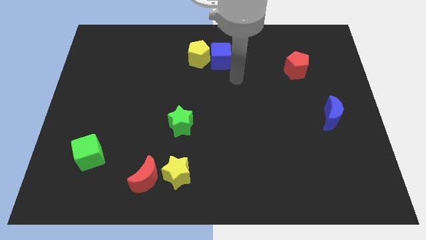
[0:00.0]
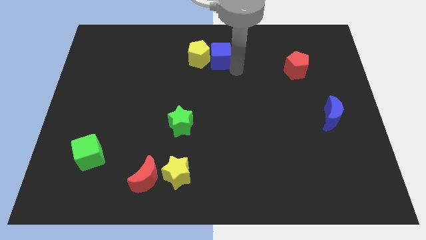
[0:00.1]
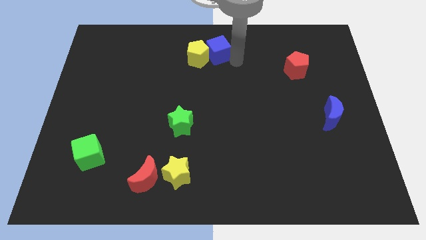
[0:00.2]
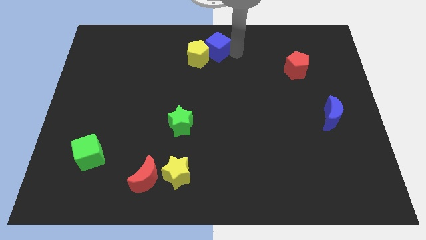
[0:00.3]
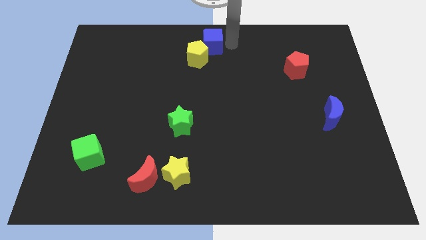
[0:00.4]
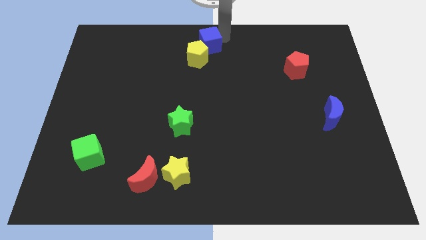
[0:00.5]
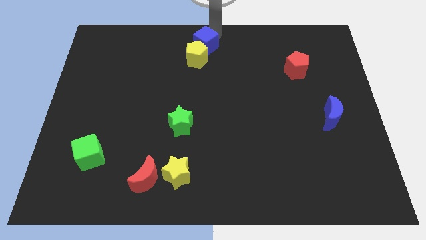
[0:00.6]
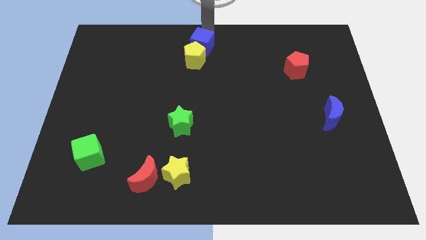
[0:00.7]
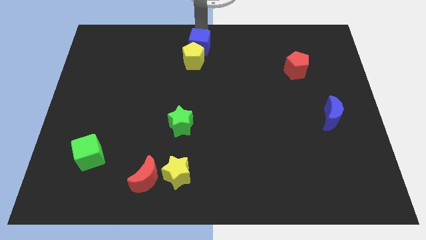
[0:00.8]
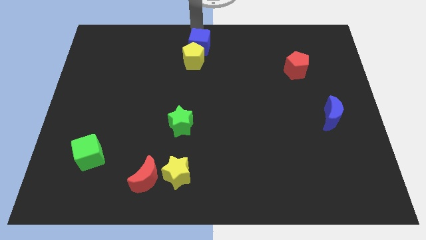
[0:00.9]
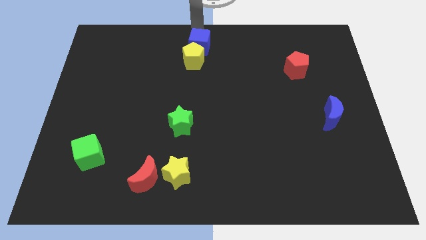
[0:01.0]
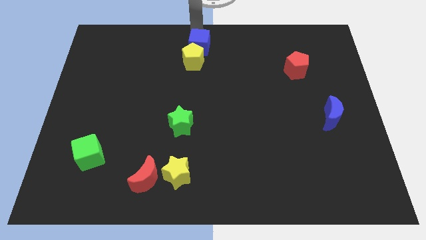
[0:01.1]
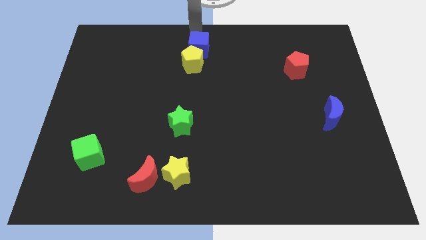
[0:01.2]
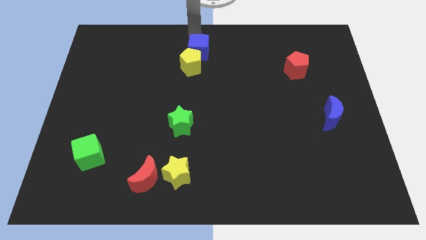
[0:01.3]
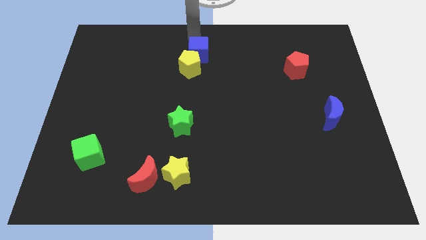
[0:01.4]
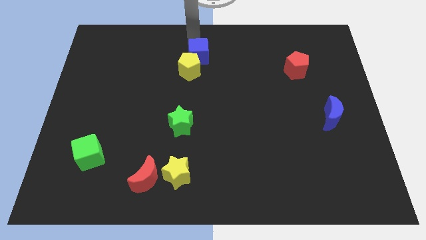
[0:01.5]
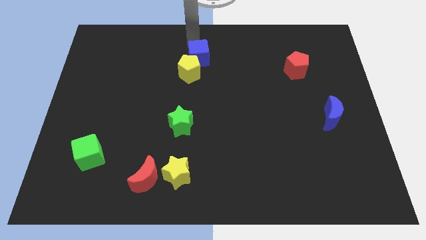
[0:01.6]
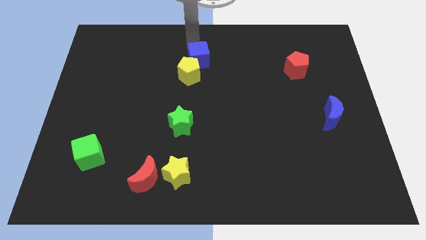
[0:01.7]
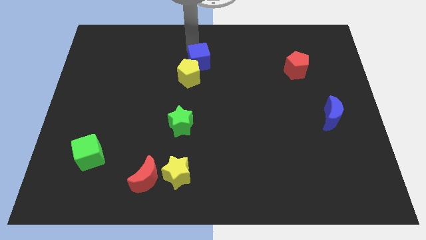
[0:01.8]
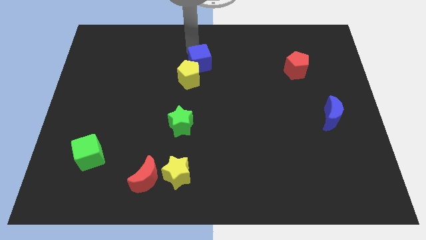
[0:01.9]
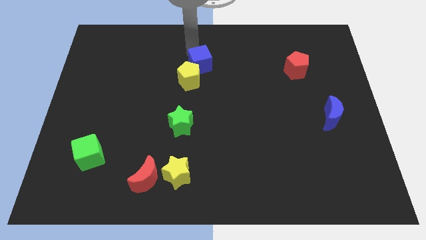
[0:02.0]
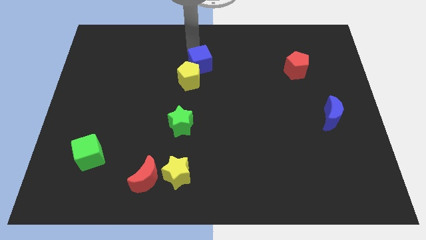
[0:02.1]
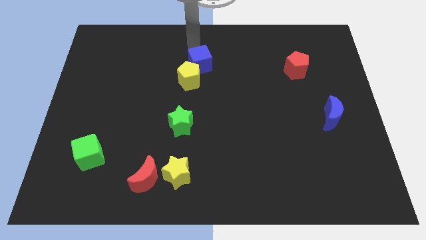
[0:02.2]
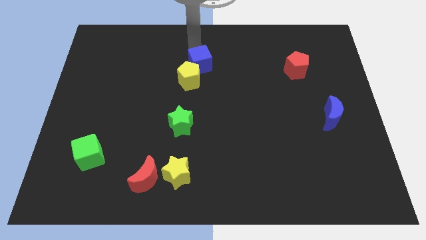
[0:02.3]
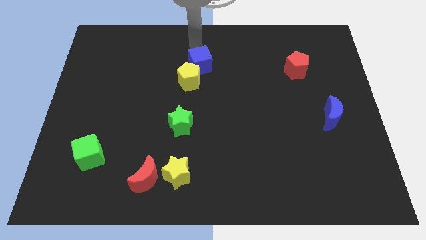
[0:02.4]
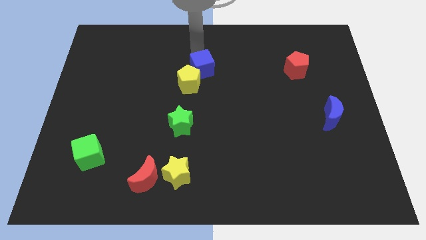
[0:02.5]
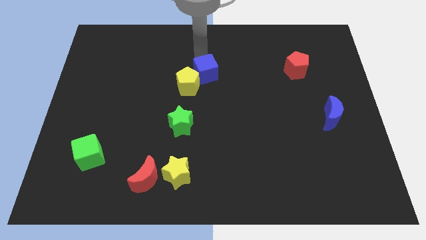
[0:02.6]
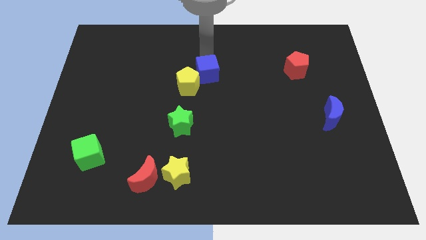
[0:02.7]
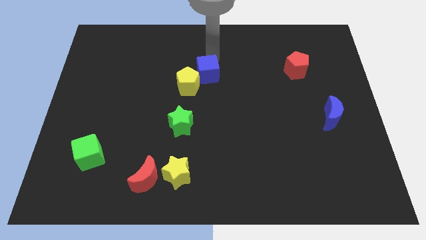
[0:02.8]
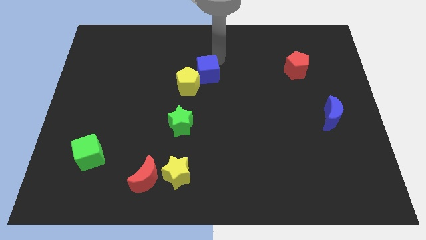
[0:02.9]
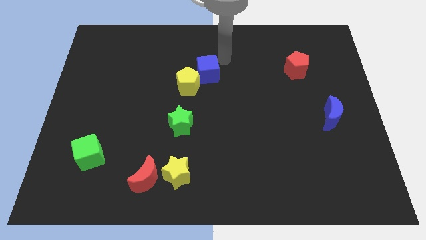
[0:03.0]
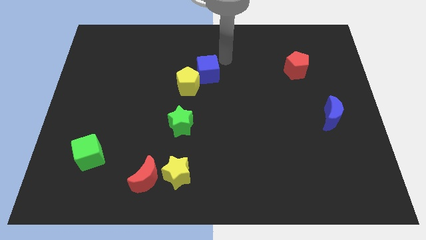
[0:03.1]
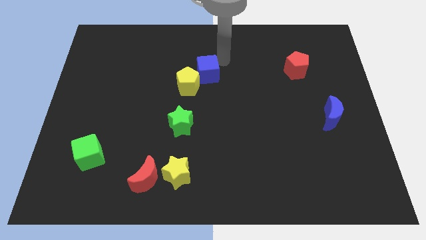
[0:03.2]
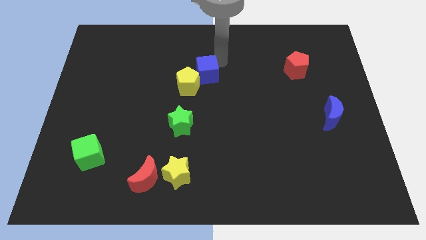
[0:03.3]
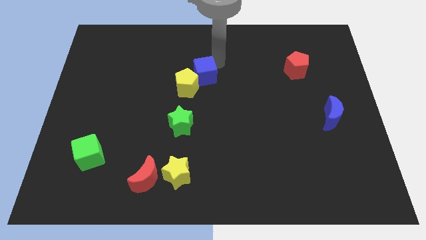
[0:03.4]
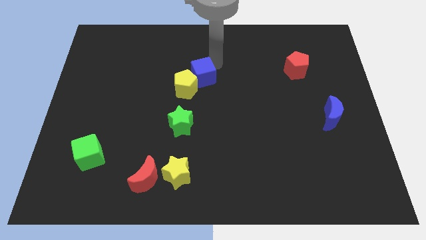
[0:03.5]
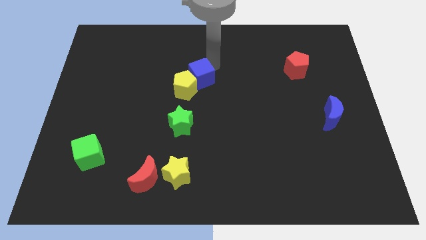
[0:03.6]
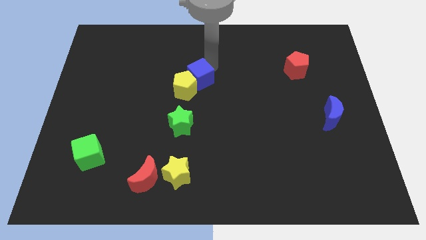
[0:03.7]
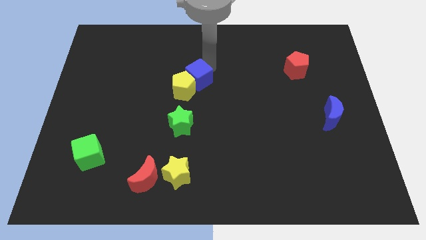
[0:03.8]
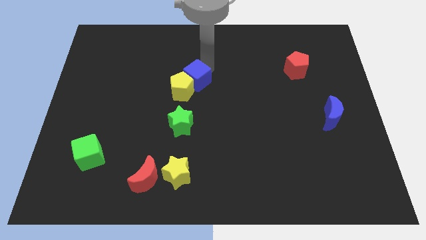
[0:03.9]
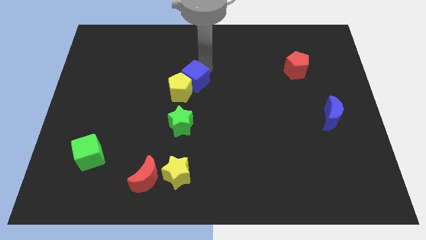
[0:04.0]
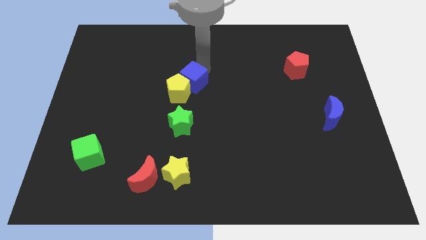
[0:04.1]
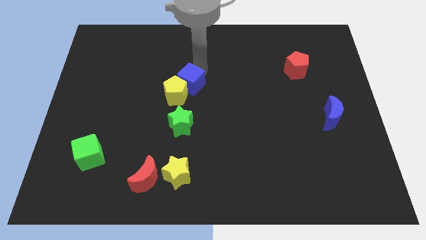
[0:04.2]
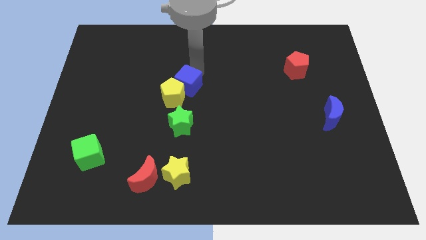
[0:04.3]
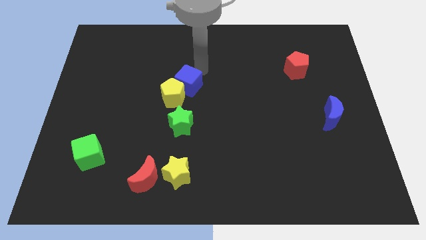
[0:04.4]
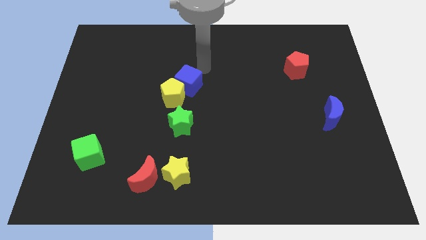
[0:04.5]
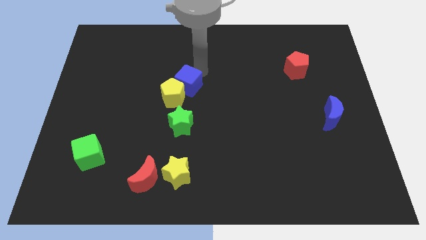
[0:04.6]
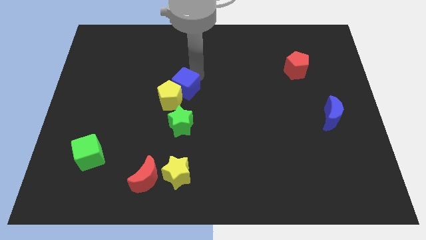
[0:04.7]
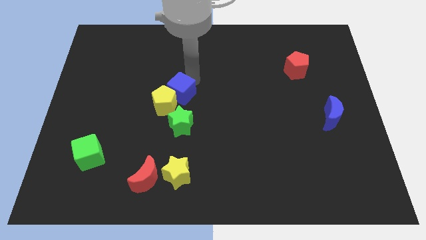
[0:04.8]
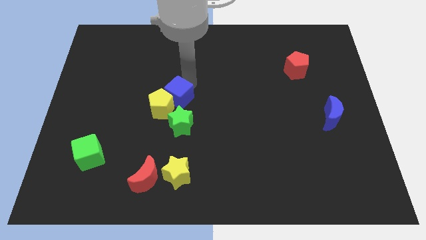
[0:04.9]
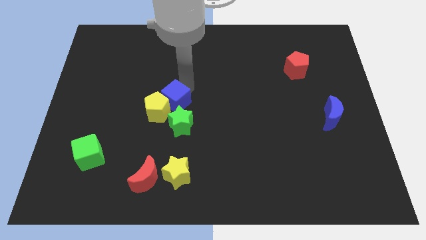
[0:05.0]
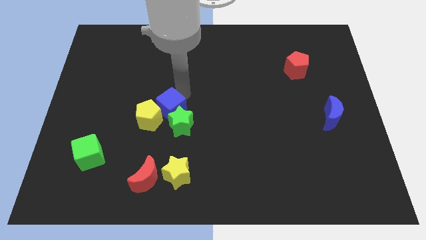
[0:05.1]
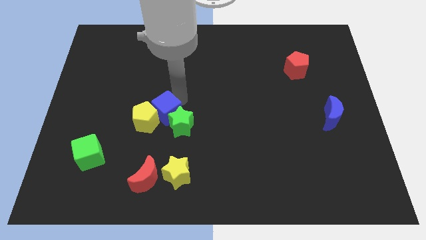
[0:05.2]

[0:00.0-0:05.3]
move the blue cube diagonally downwards and left

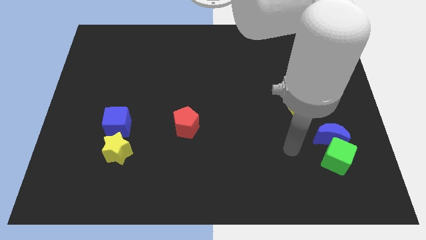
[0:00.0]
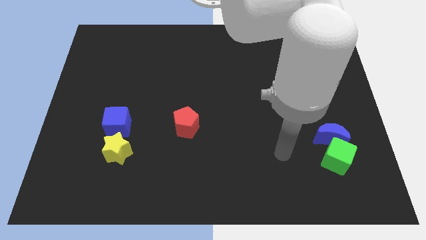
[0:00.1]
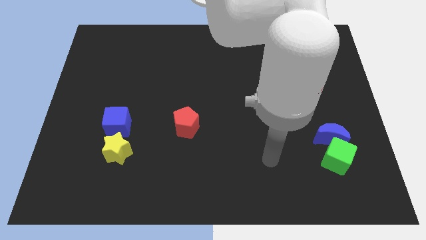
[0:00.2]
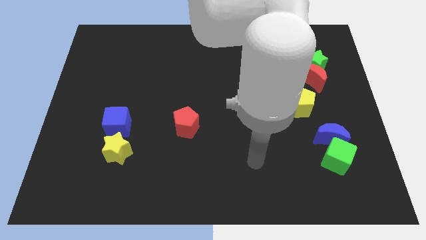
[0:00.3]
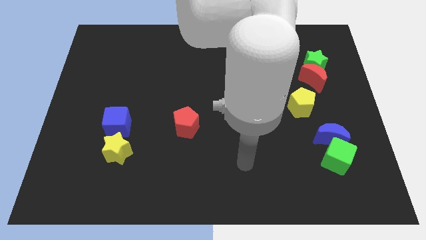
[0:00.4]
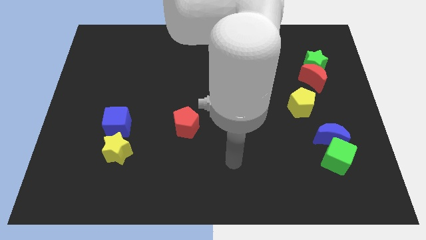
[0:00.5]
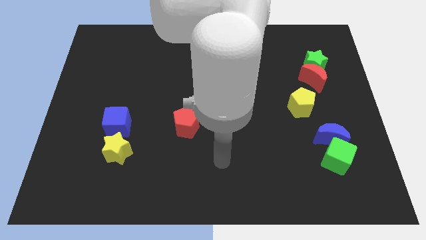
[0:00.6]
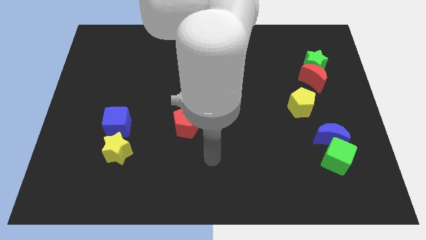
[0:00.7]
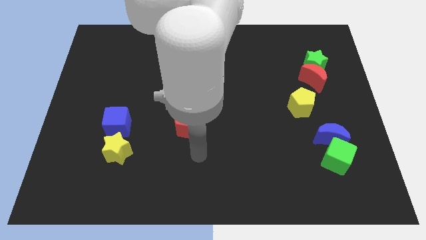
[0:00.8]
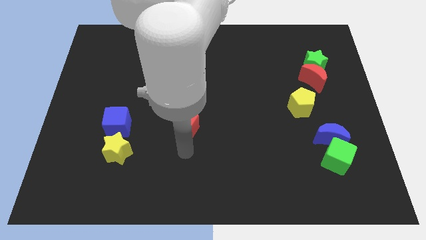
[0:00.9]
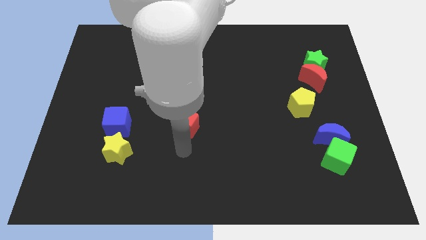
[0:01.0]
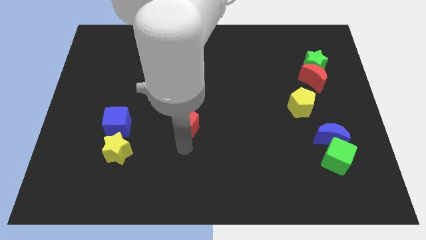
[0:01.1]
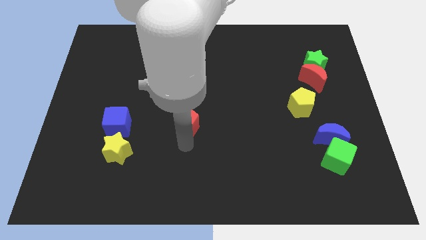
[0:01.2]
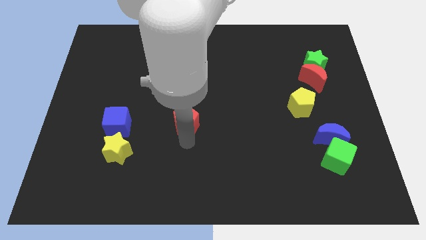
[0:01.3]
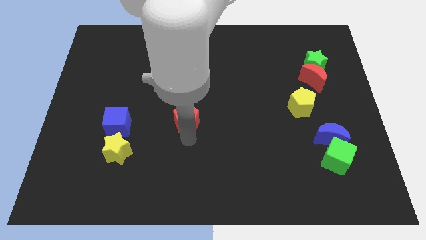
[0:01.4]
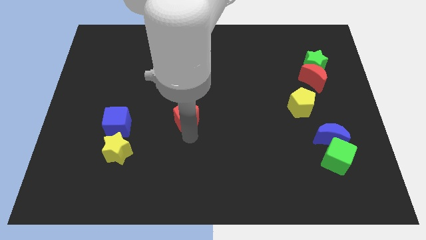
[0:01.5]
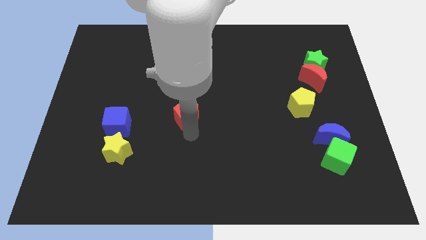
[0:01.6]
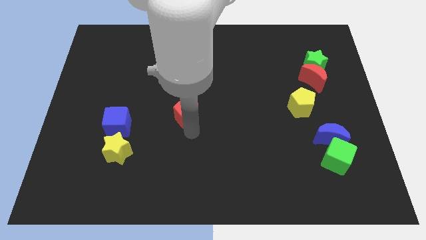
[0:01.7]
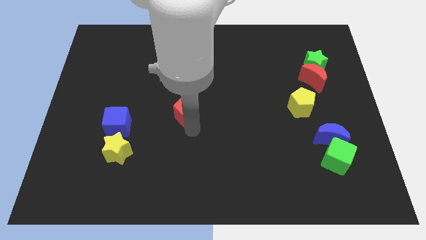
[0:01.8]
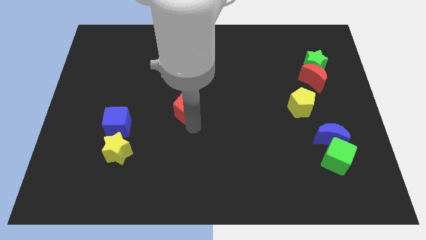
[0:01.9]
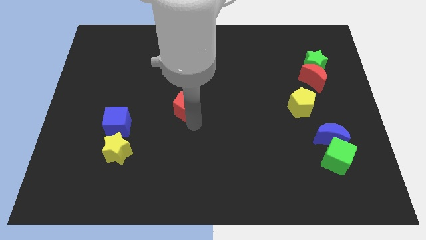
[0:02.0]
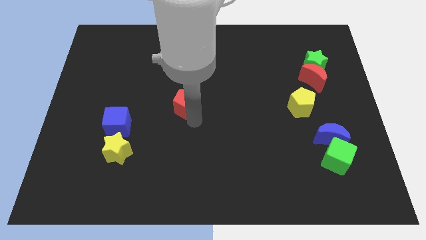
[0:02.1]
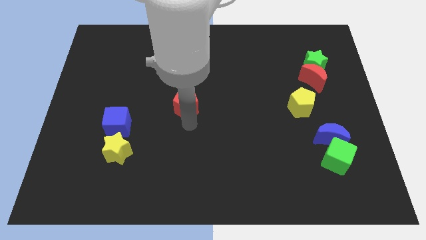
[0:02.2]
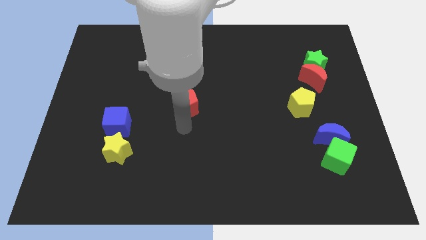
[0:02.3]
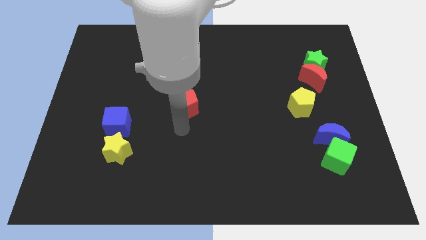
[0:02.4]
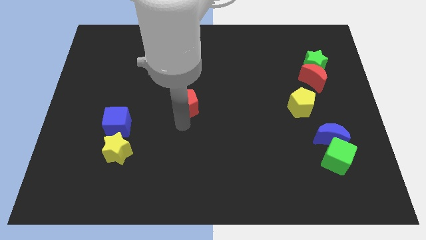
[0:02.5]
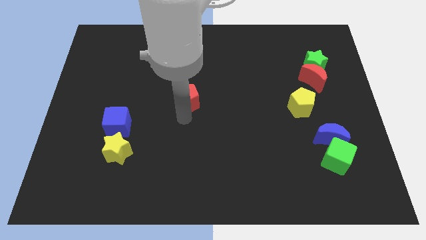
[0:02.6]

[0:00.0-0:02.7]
slightly push the red pentagon upwards

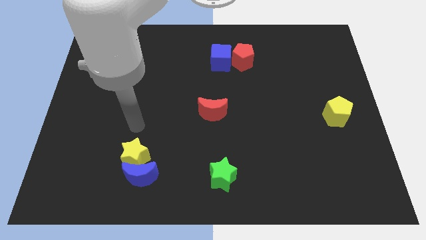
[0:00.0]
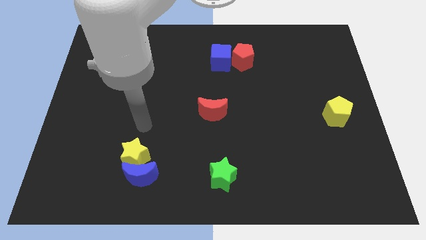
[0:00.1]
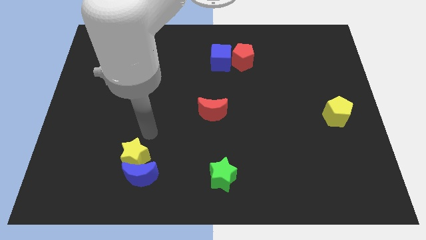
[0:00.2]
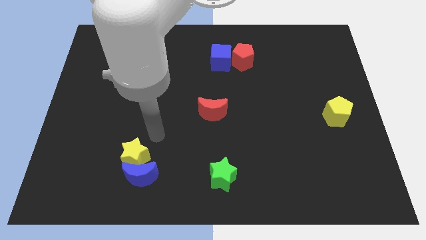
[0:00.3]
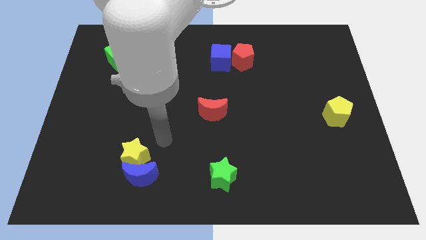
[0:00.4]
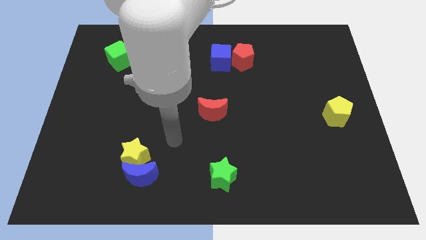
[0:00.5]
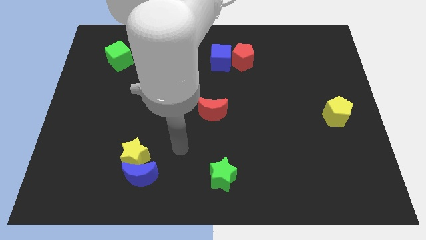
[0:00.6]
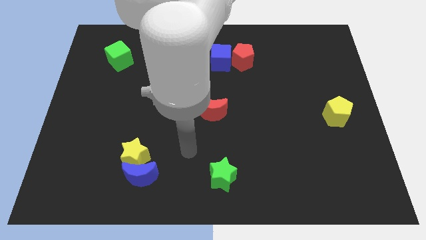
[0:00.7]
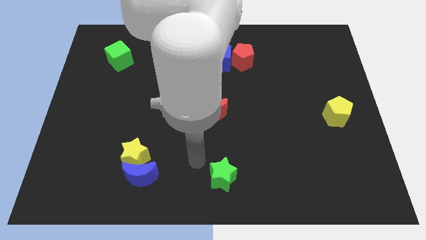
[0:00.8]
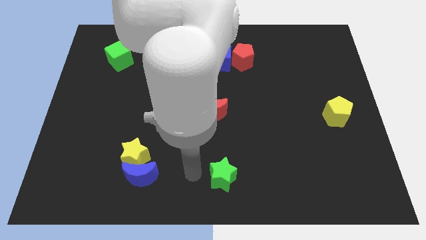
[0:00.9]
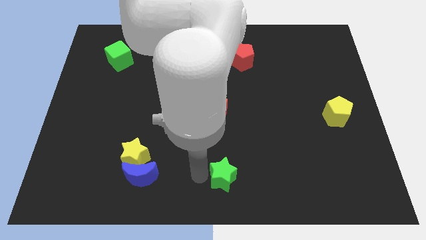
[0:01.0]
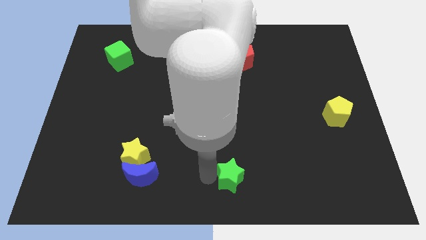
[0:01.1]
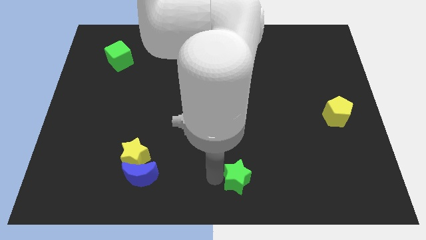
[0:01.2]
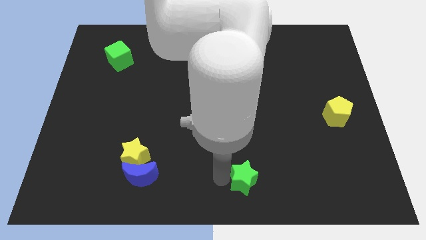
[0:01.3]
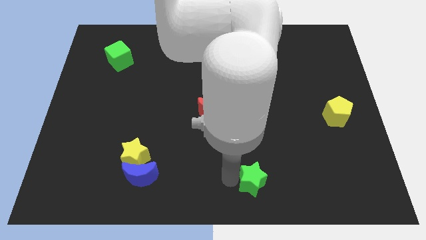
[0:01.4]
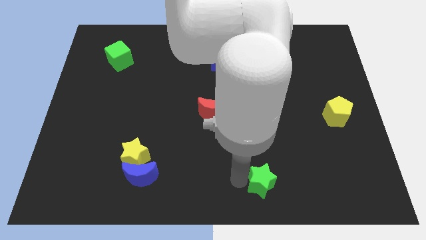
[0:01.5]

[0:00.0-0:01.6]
push the green star a little to the right
